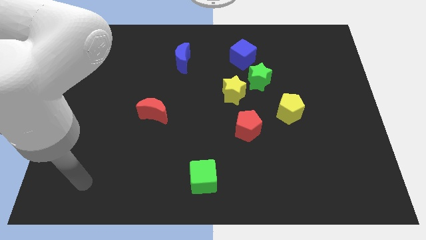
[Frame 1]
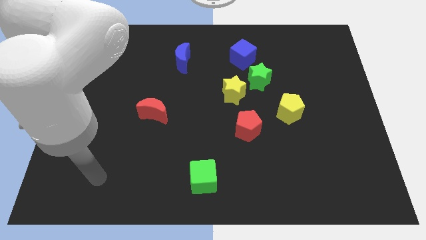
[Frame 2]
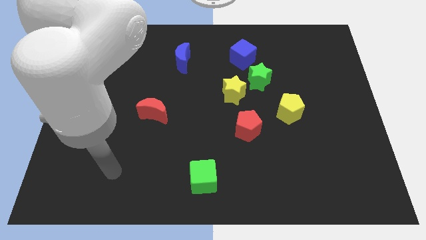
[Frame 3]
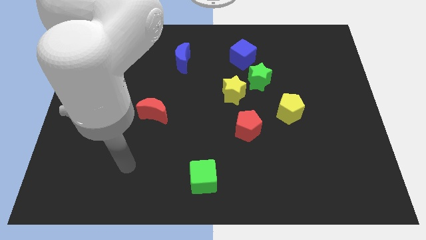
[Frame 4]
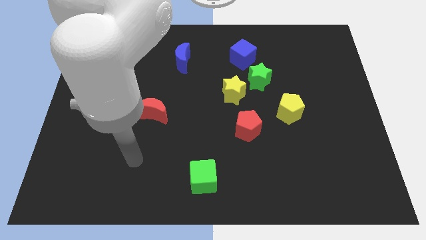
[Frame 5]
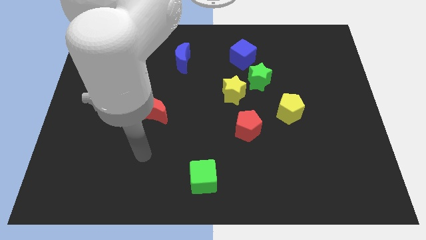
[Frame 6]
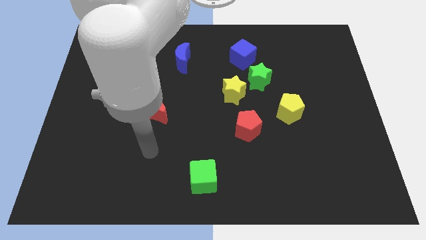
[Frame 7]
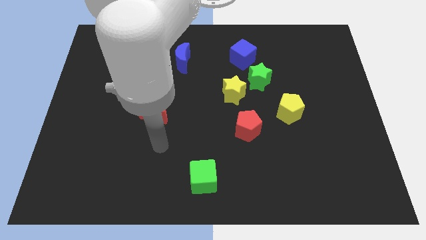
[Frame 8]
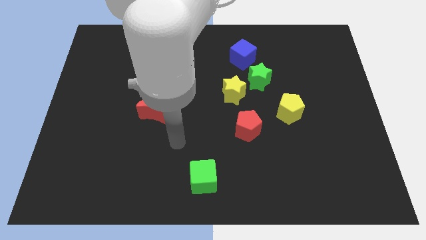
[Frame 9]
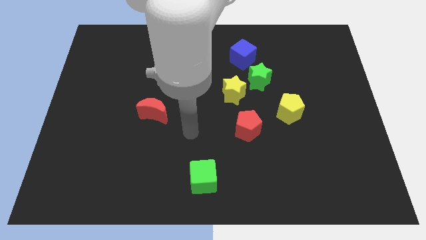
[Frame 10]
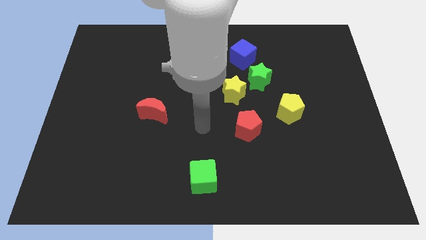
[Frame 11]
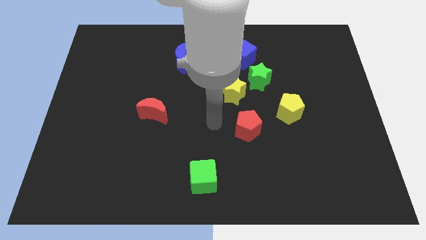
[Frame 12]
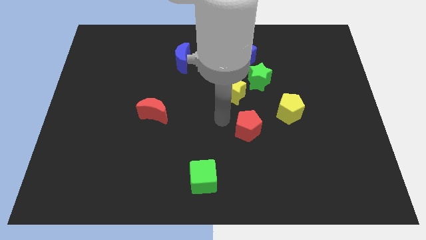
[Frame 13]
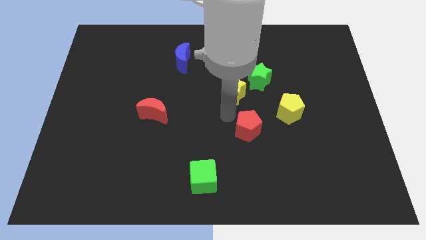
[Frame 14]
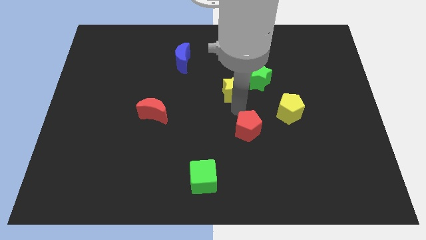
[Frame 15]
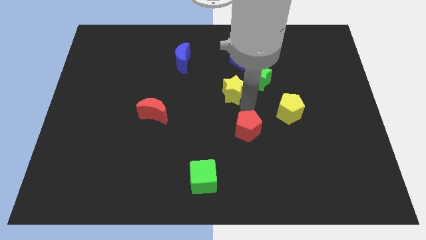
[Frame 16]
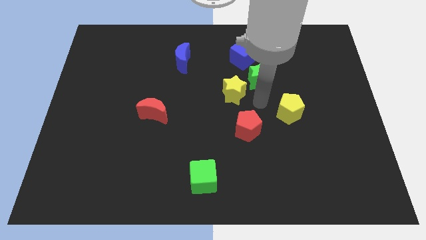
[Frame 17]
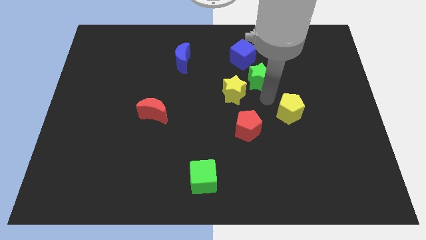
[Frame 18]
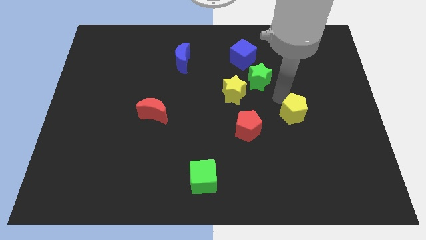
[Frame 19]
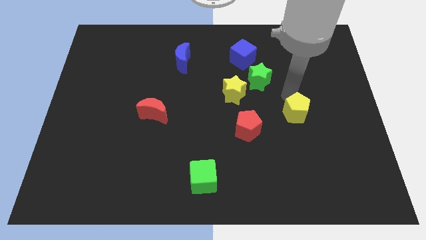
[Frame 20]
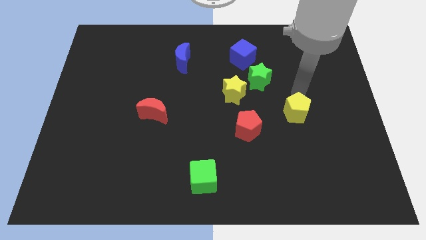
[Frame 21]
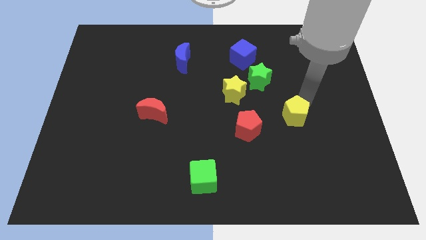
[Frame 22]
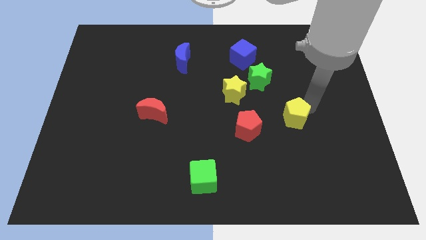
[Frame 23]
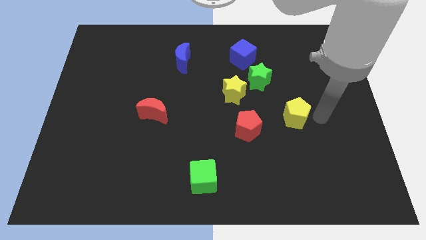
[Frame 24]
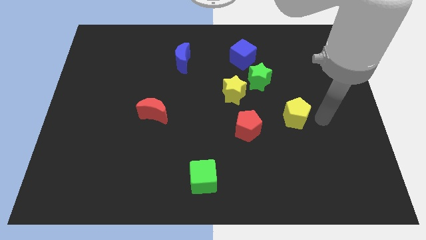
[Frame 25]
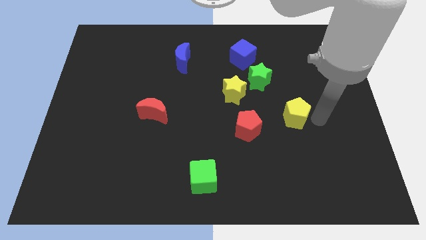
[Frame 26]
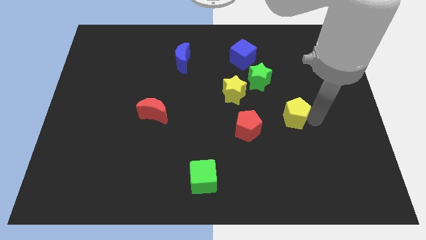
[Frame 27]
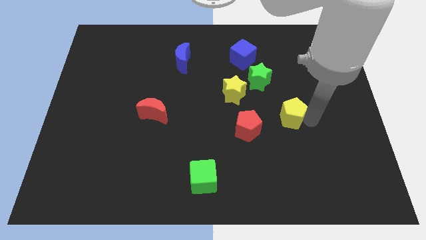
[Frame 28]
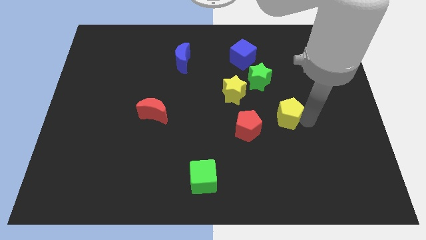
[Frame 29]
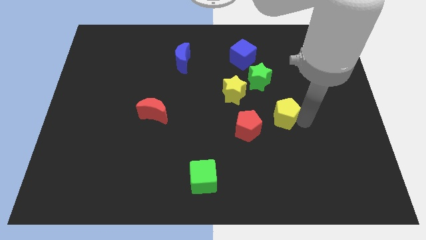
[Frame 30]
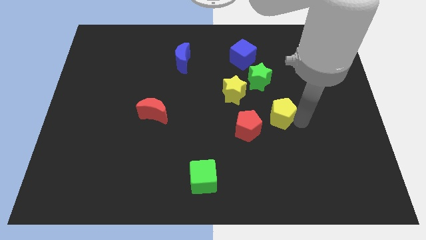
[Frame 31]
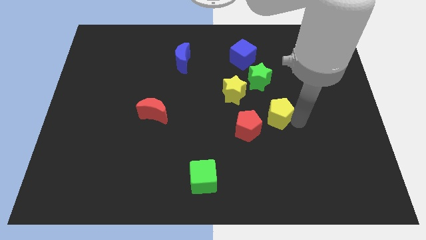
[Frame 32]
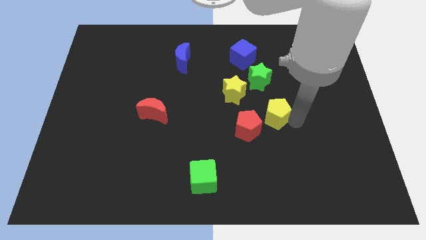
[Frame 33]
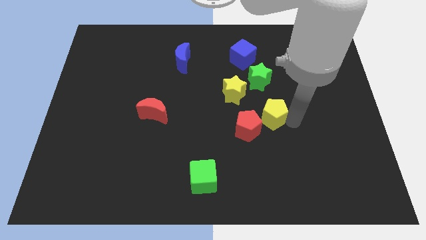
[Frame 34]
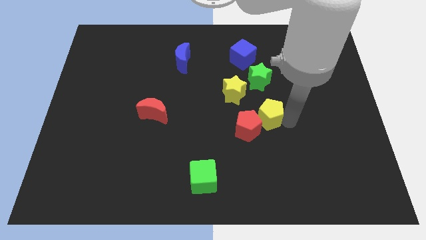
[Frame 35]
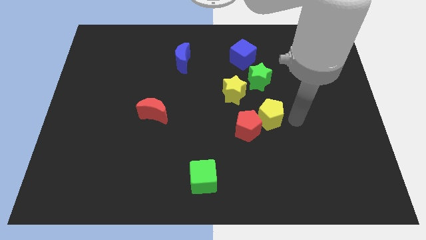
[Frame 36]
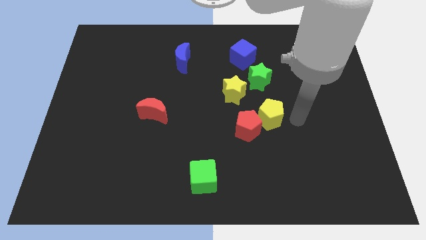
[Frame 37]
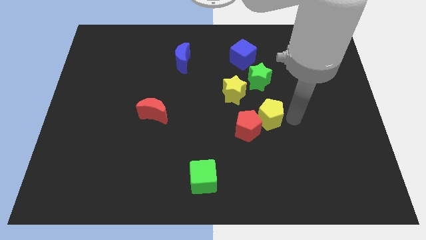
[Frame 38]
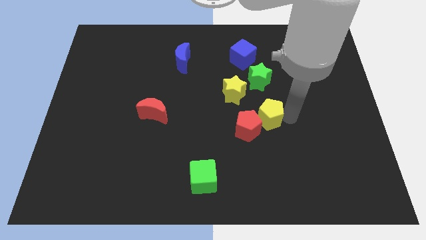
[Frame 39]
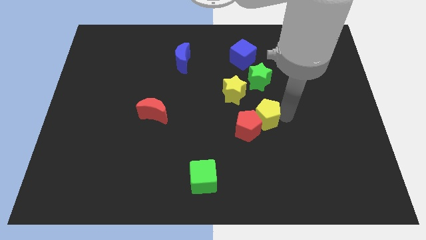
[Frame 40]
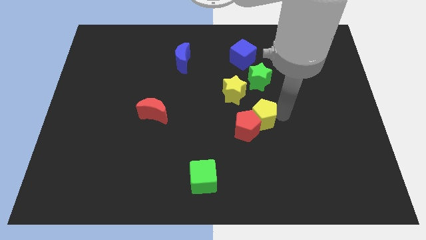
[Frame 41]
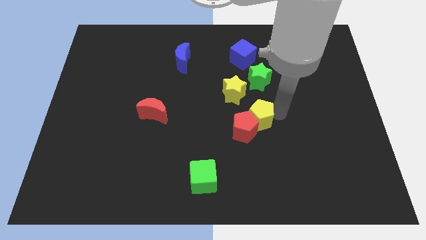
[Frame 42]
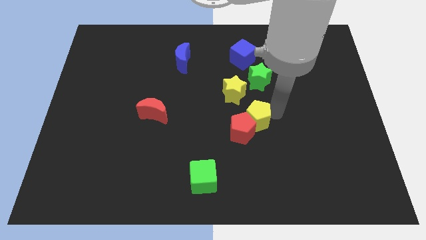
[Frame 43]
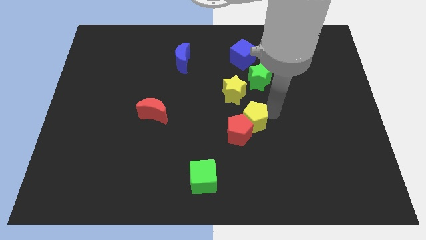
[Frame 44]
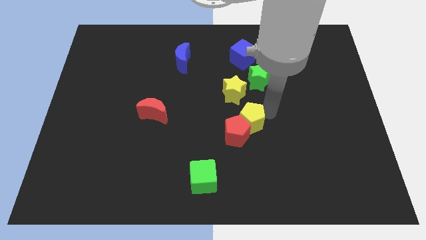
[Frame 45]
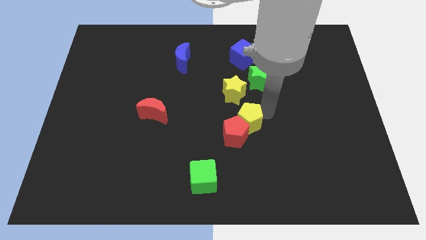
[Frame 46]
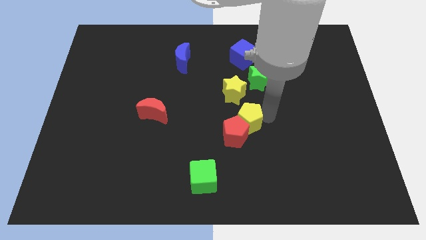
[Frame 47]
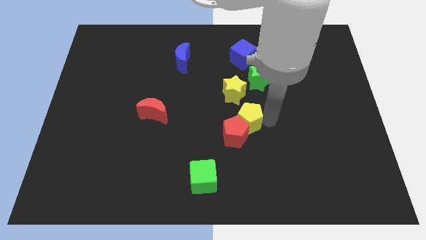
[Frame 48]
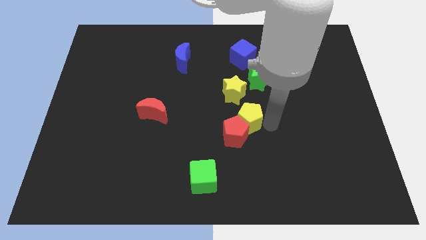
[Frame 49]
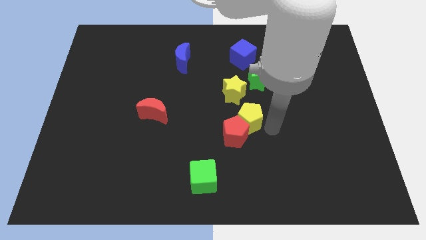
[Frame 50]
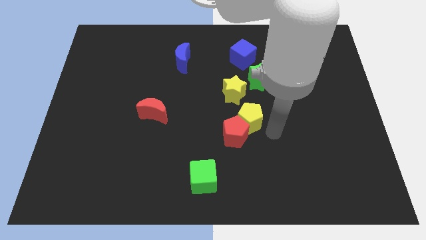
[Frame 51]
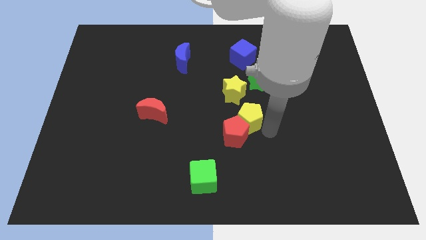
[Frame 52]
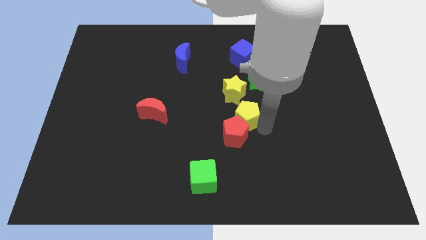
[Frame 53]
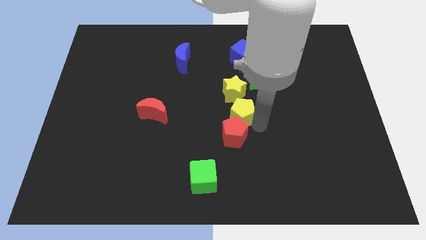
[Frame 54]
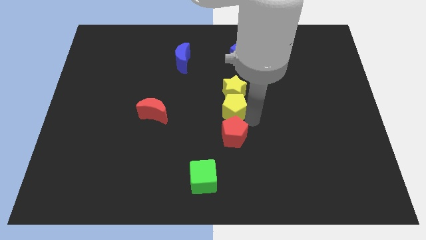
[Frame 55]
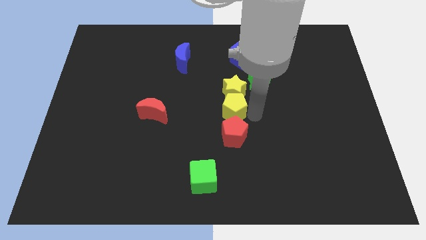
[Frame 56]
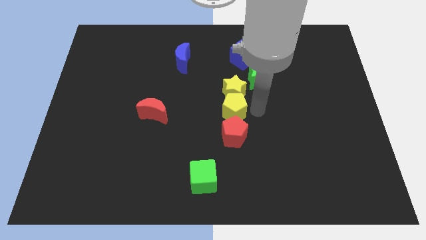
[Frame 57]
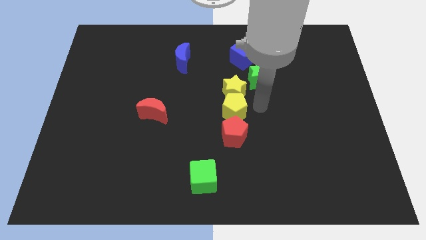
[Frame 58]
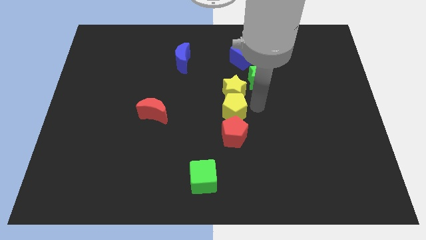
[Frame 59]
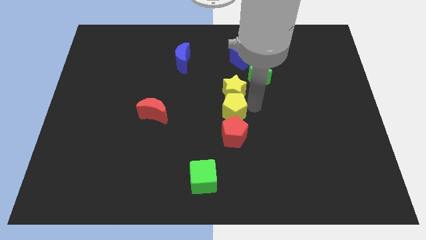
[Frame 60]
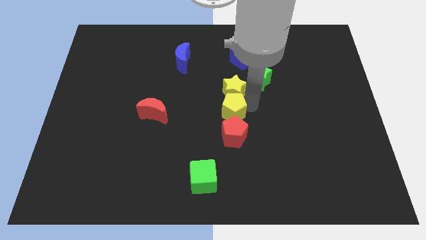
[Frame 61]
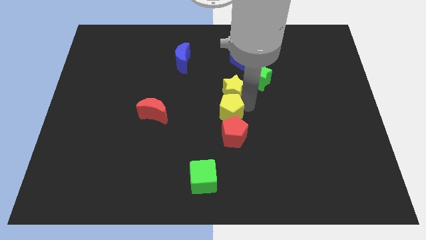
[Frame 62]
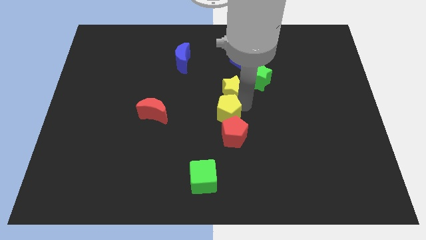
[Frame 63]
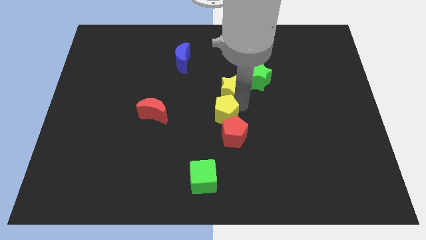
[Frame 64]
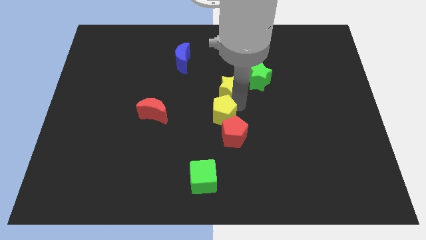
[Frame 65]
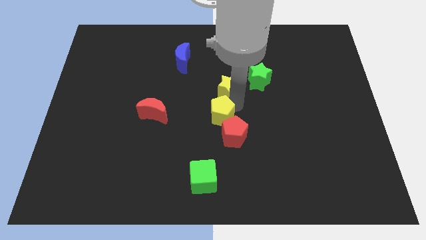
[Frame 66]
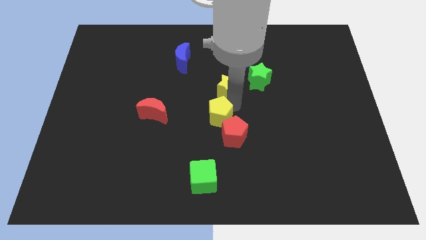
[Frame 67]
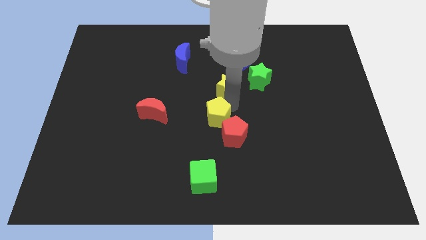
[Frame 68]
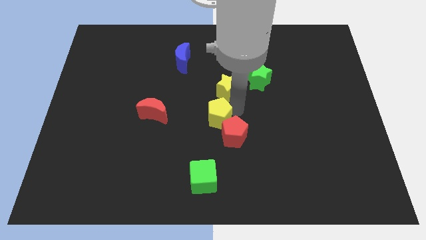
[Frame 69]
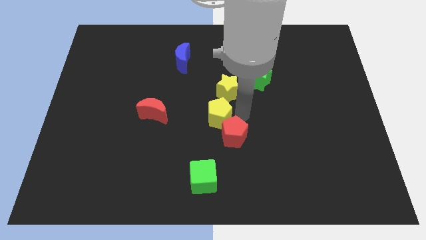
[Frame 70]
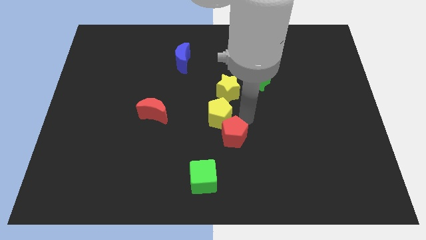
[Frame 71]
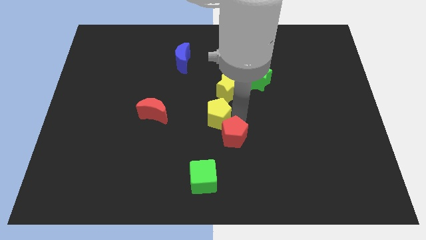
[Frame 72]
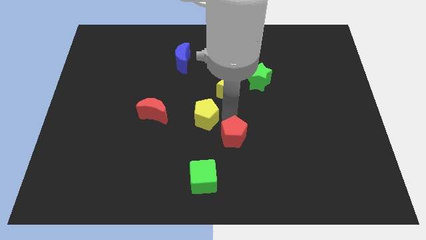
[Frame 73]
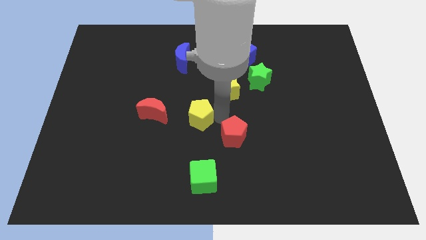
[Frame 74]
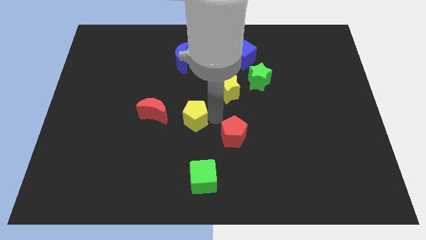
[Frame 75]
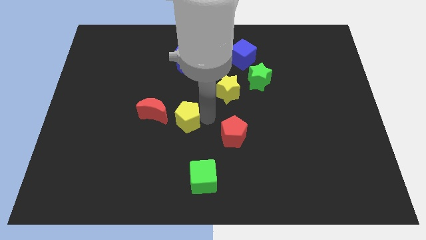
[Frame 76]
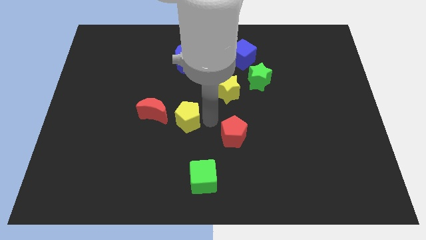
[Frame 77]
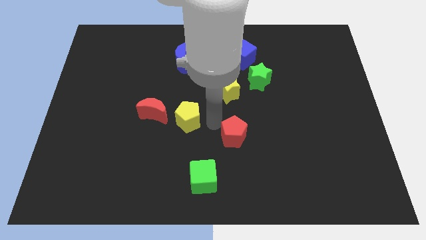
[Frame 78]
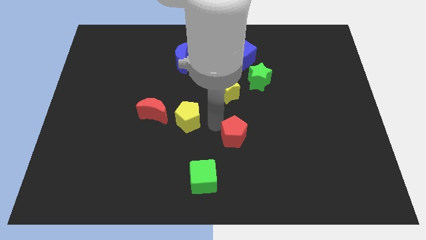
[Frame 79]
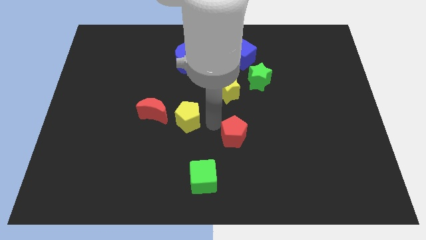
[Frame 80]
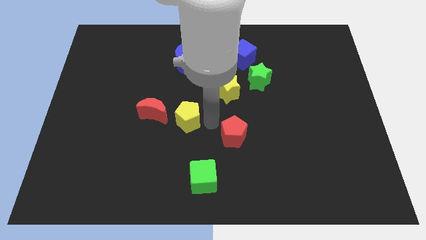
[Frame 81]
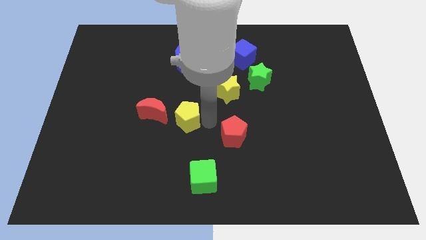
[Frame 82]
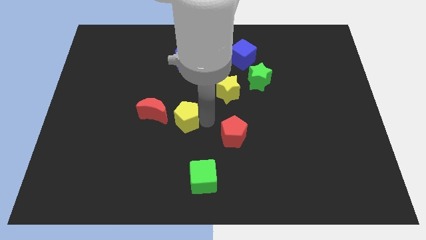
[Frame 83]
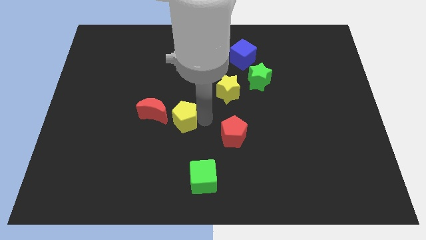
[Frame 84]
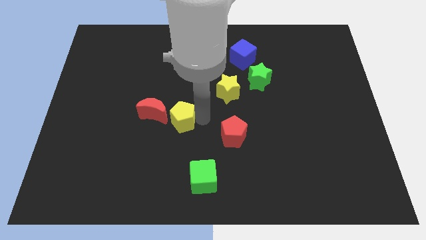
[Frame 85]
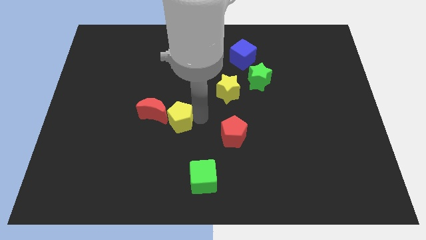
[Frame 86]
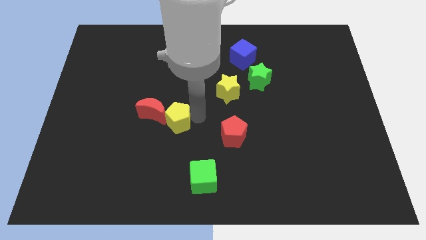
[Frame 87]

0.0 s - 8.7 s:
put the yellow pentagon towards the red moon
